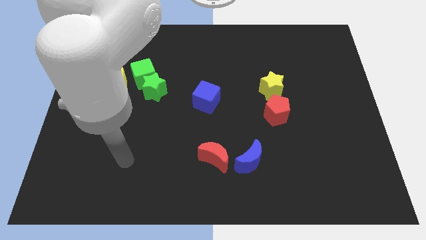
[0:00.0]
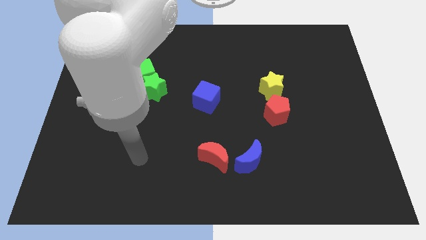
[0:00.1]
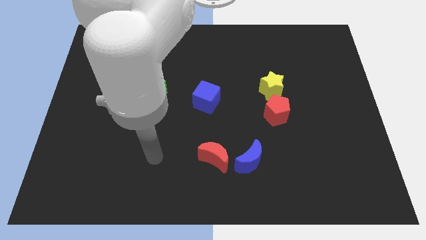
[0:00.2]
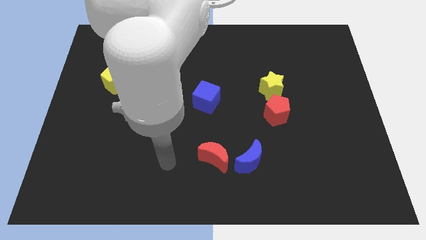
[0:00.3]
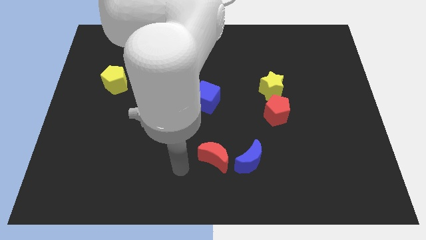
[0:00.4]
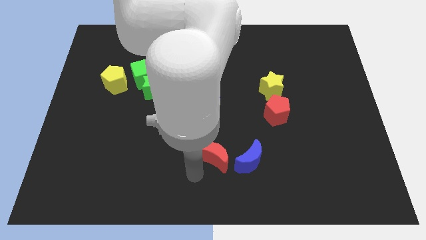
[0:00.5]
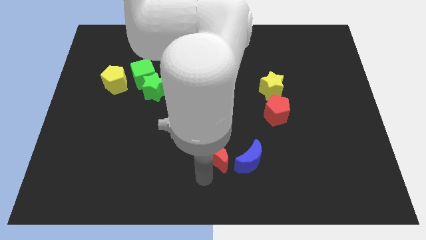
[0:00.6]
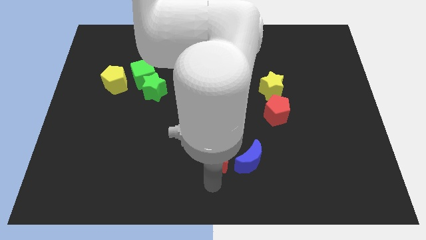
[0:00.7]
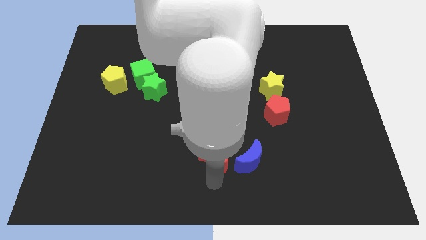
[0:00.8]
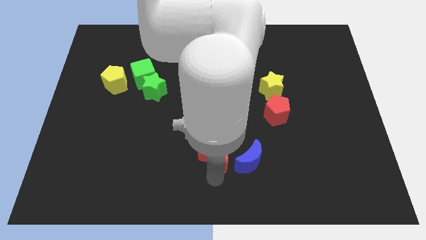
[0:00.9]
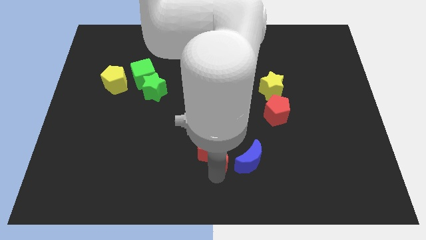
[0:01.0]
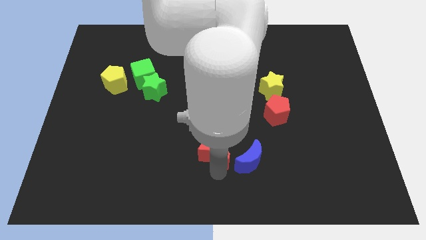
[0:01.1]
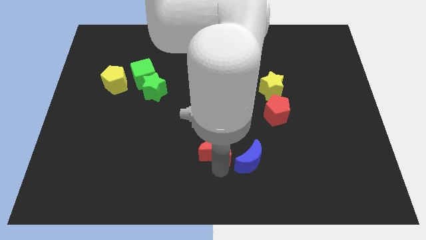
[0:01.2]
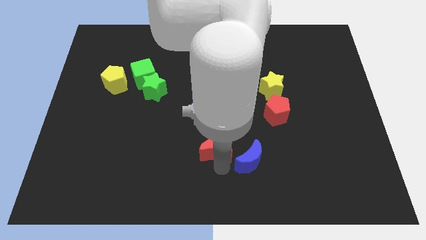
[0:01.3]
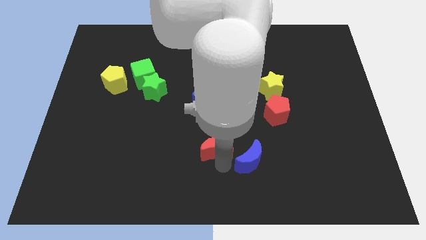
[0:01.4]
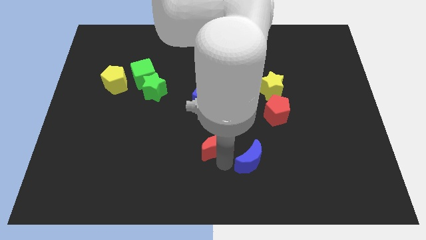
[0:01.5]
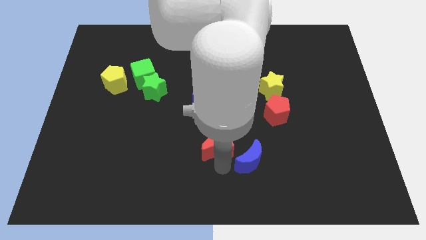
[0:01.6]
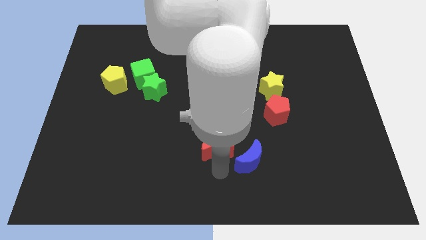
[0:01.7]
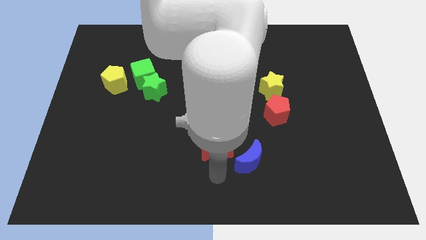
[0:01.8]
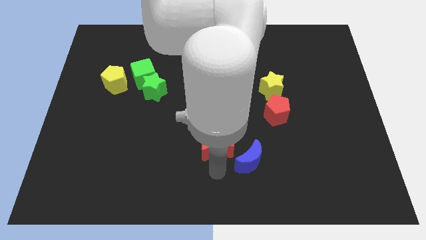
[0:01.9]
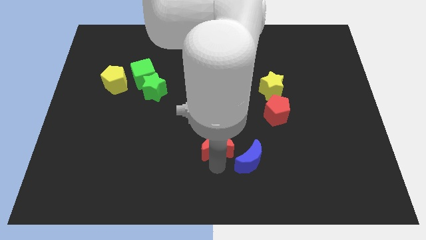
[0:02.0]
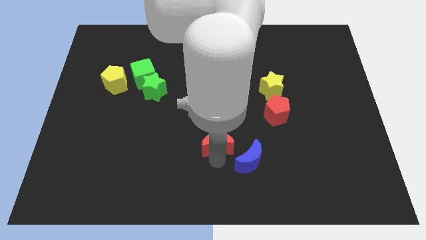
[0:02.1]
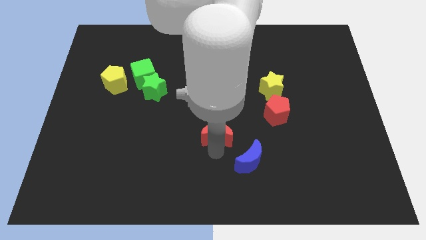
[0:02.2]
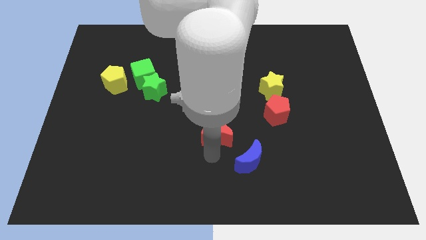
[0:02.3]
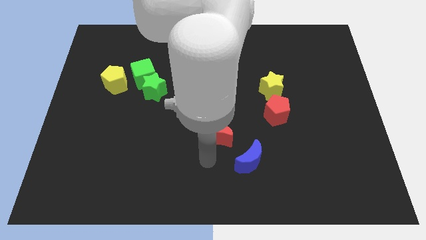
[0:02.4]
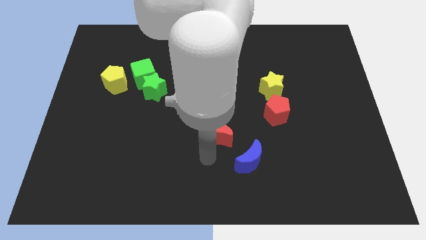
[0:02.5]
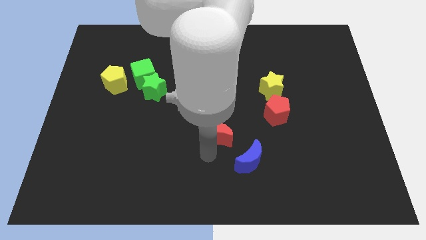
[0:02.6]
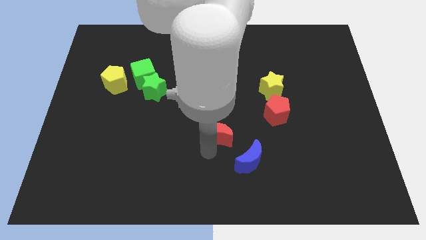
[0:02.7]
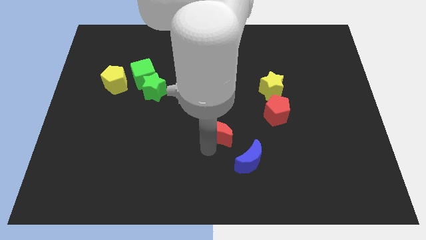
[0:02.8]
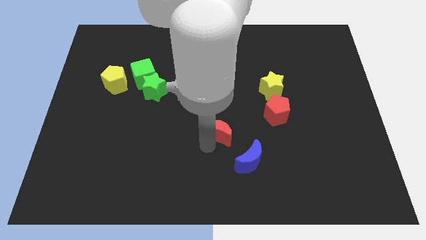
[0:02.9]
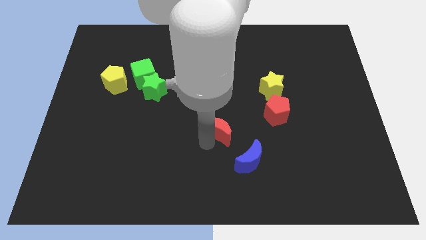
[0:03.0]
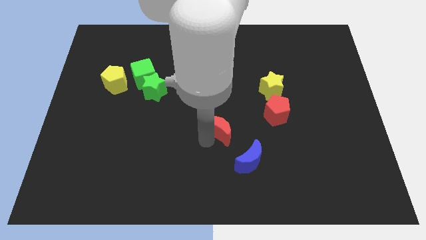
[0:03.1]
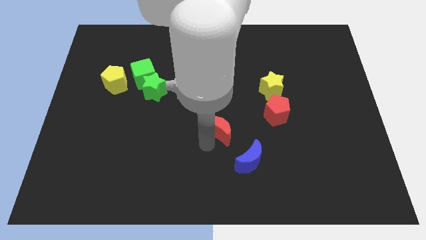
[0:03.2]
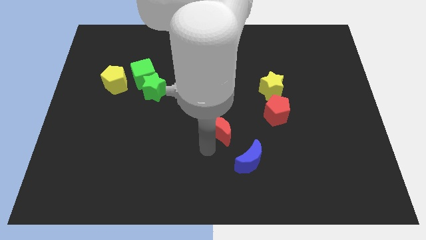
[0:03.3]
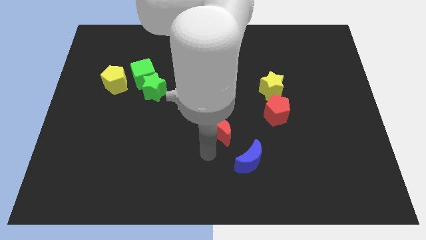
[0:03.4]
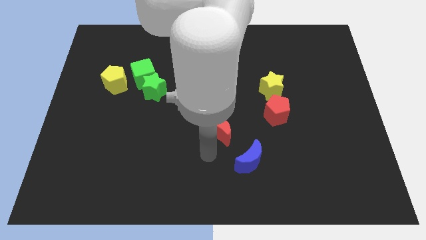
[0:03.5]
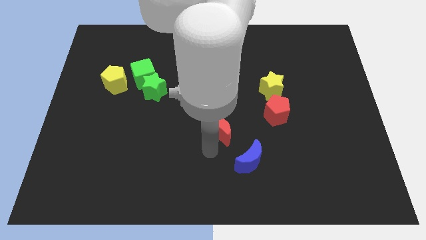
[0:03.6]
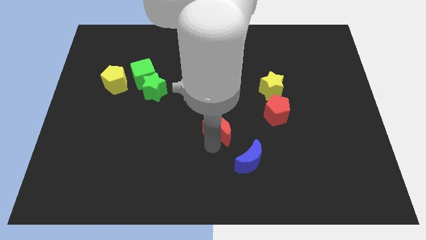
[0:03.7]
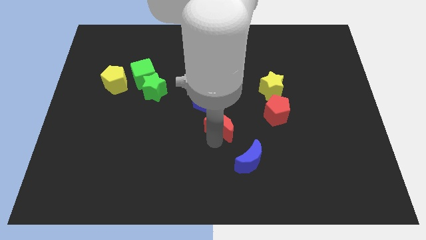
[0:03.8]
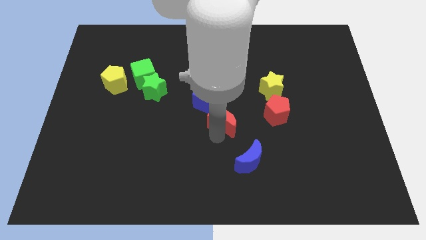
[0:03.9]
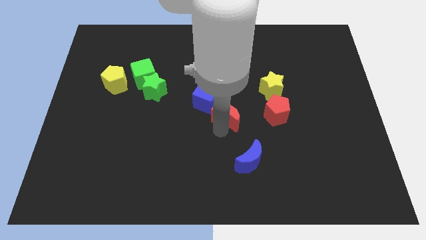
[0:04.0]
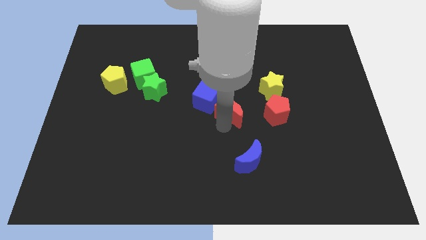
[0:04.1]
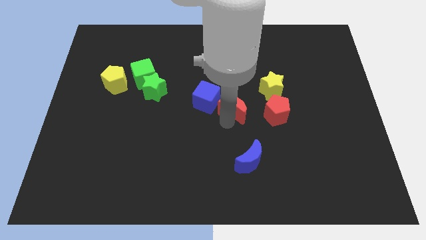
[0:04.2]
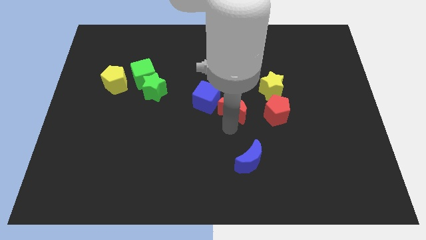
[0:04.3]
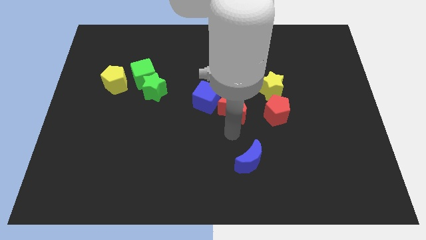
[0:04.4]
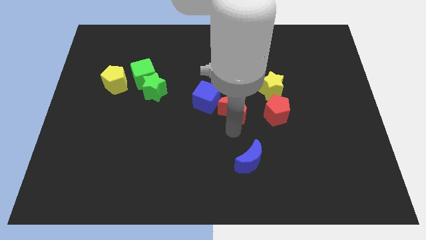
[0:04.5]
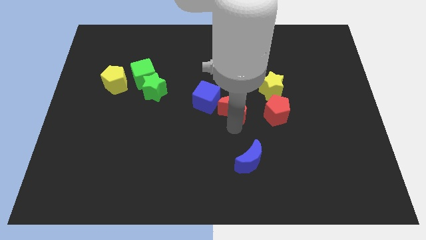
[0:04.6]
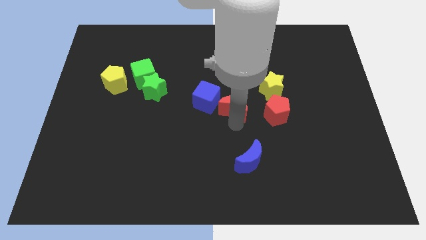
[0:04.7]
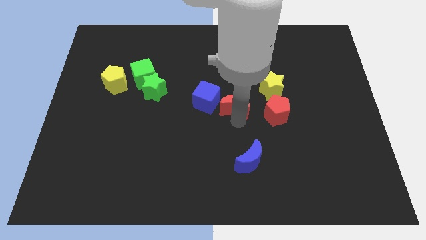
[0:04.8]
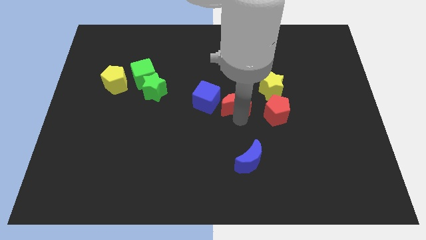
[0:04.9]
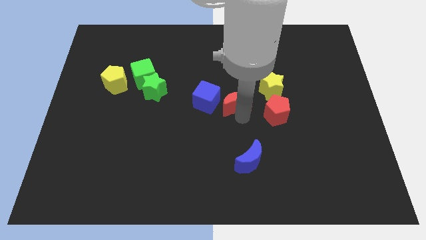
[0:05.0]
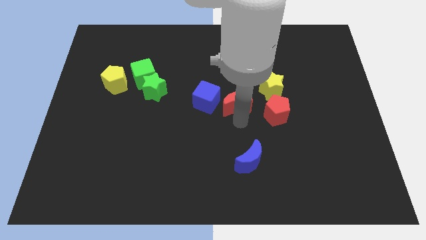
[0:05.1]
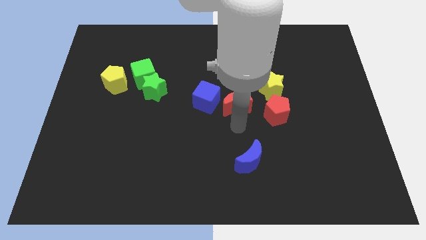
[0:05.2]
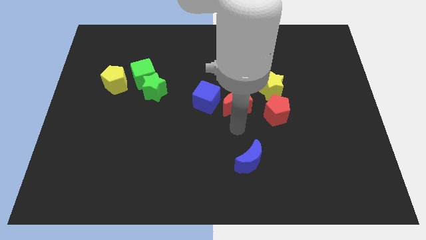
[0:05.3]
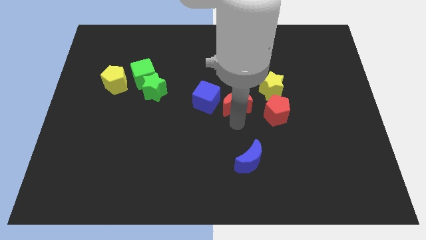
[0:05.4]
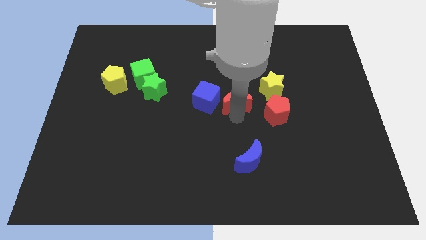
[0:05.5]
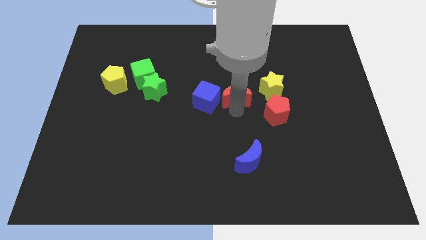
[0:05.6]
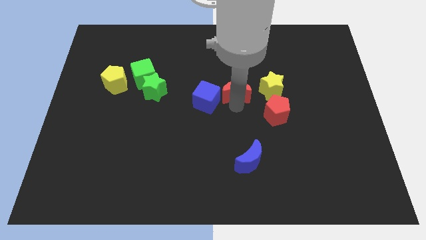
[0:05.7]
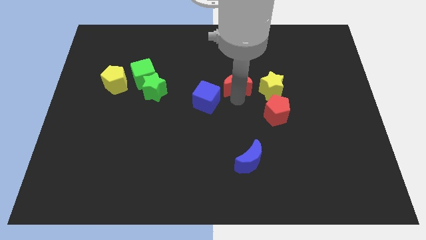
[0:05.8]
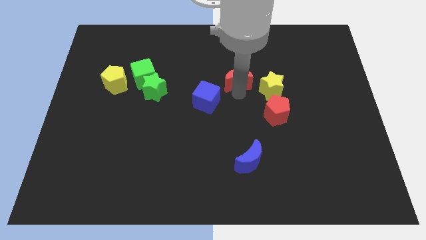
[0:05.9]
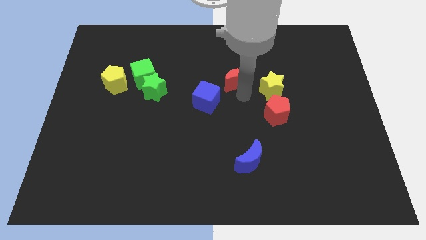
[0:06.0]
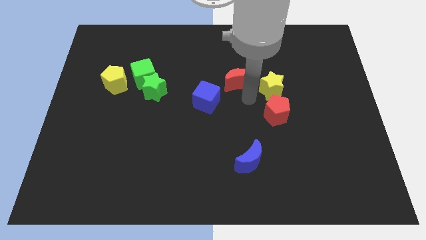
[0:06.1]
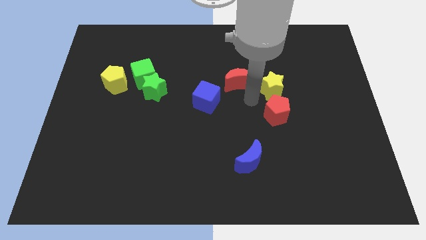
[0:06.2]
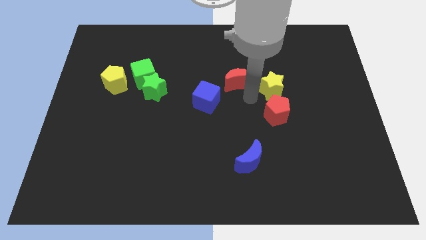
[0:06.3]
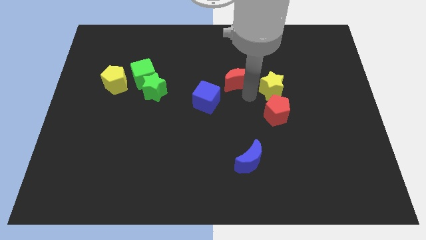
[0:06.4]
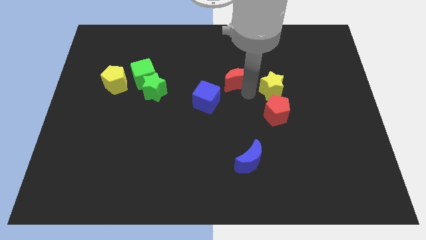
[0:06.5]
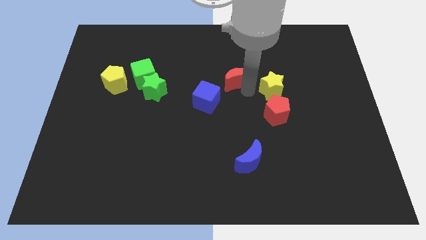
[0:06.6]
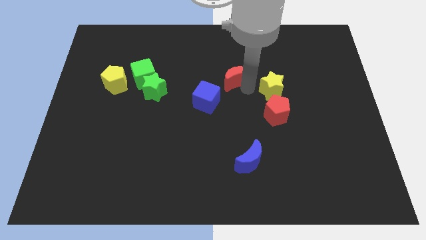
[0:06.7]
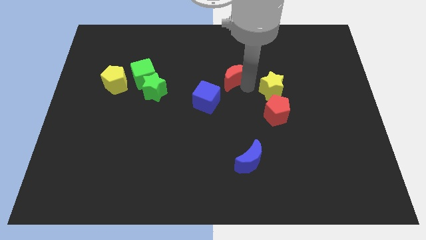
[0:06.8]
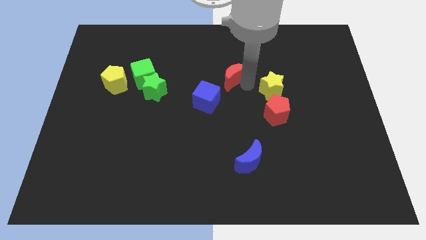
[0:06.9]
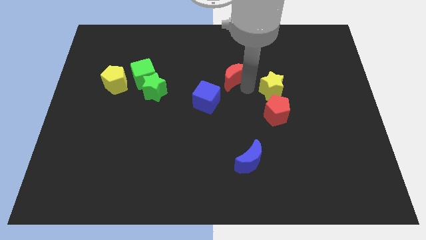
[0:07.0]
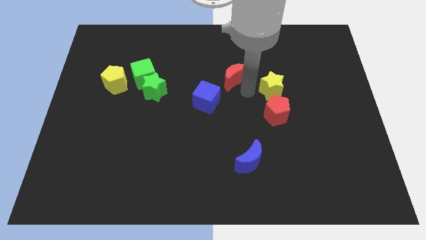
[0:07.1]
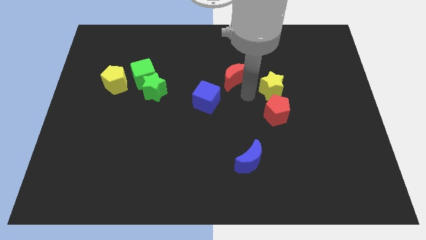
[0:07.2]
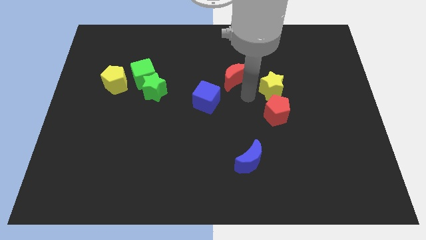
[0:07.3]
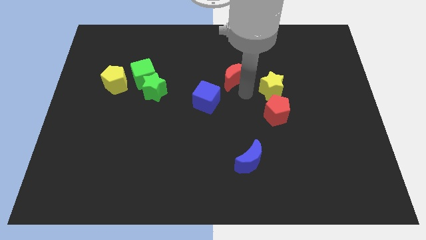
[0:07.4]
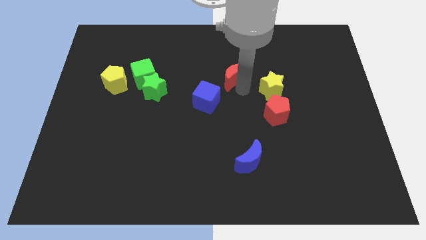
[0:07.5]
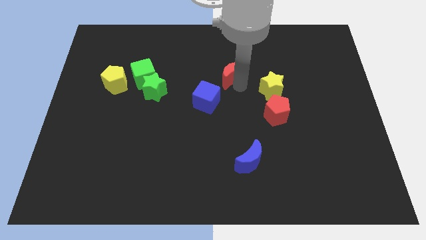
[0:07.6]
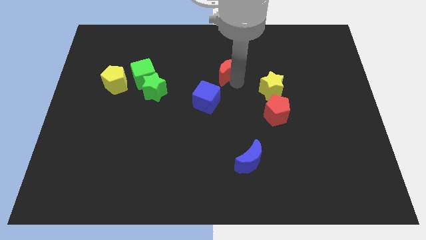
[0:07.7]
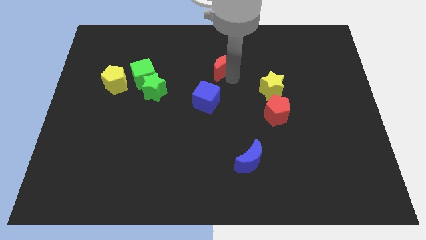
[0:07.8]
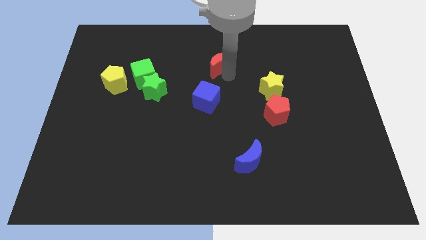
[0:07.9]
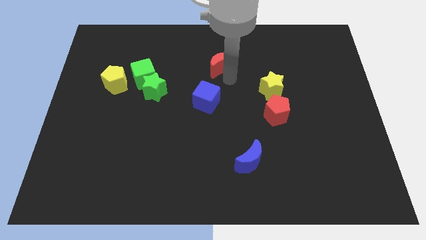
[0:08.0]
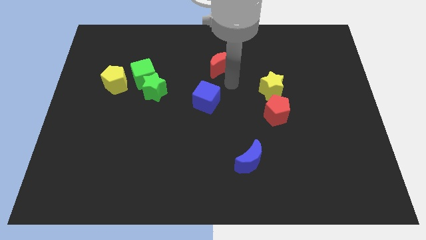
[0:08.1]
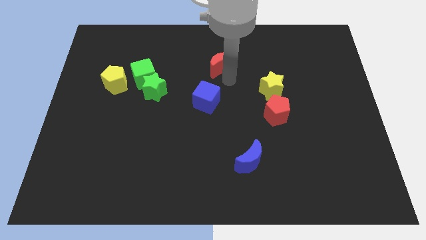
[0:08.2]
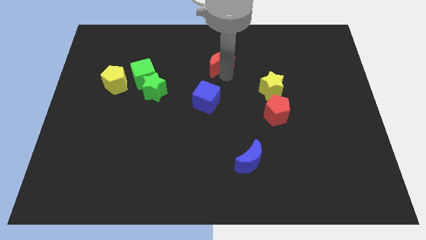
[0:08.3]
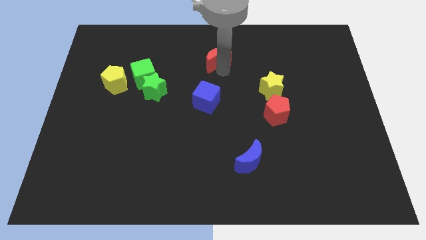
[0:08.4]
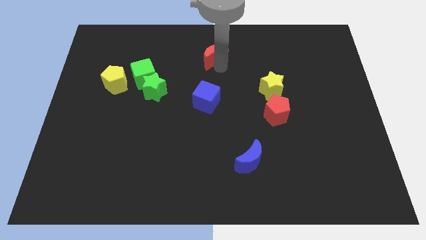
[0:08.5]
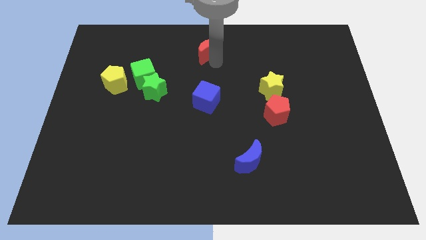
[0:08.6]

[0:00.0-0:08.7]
put the red moon to the top side
